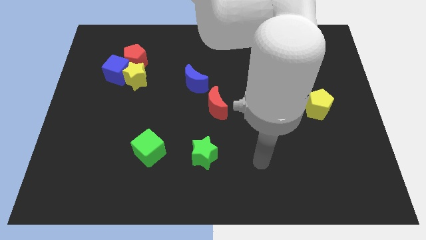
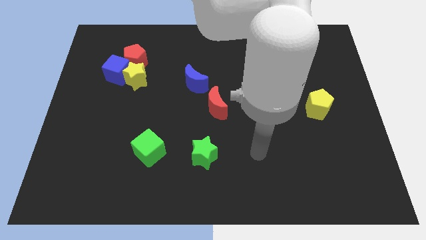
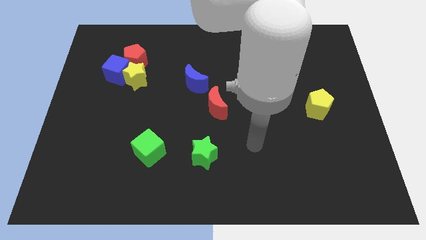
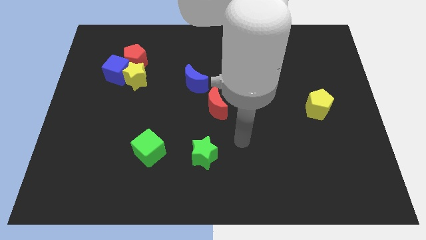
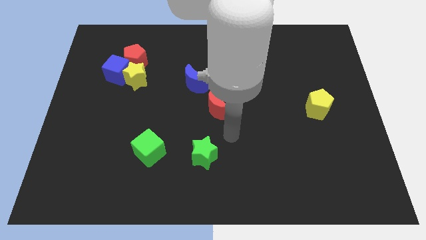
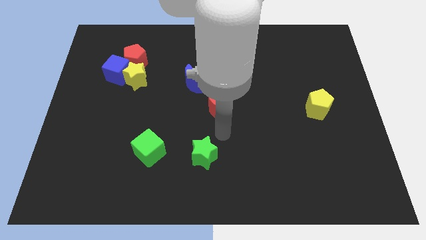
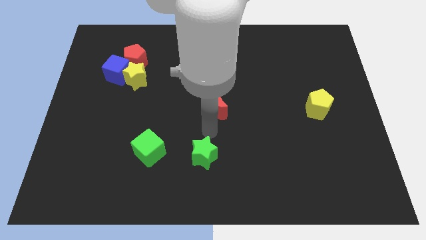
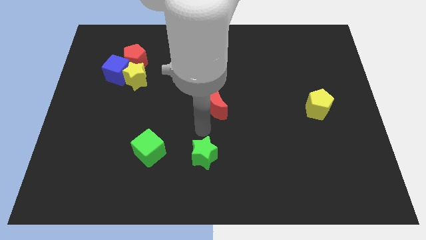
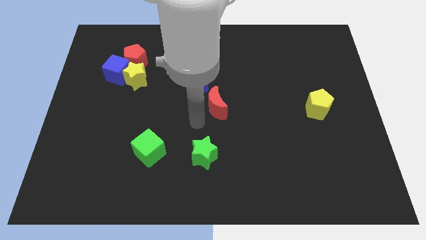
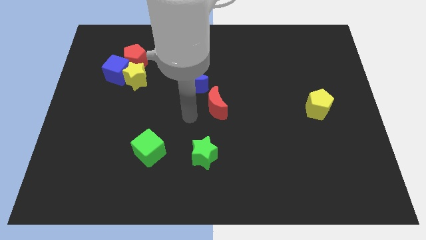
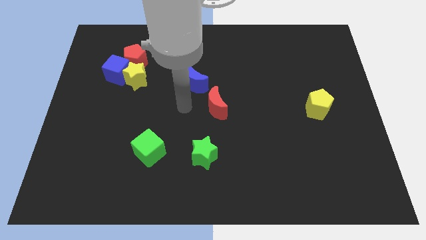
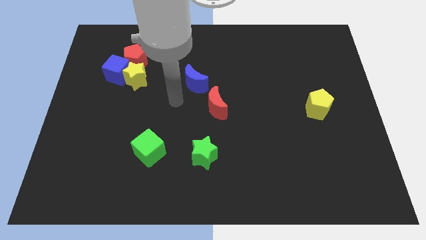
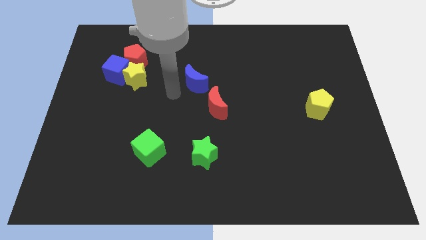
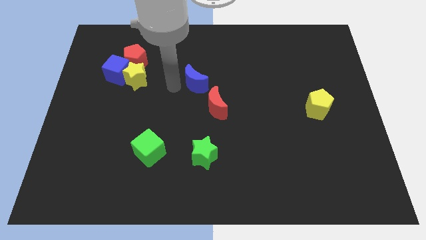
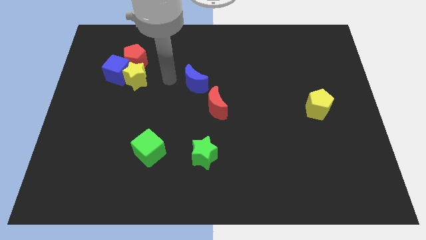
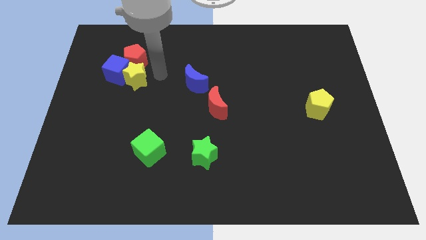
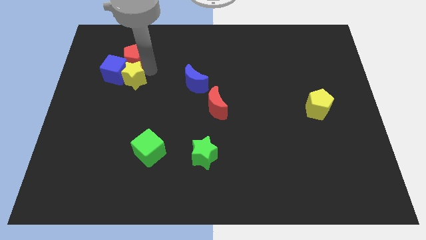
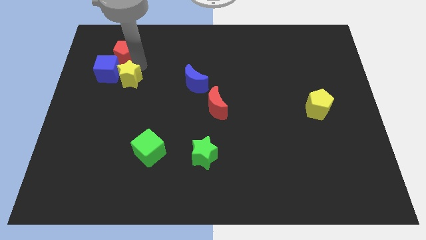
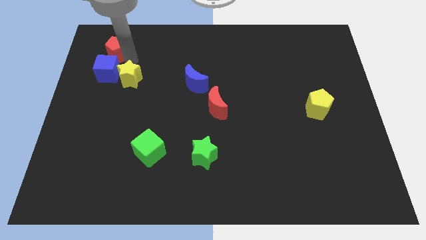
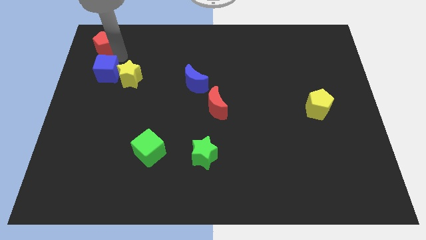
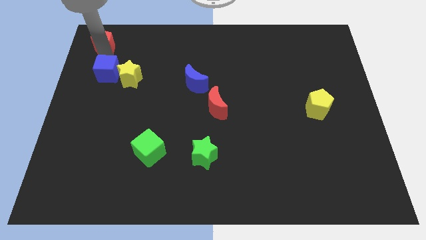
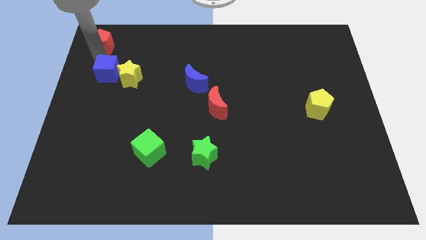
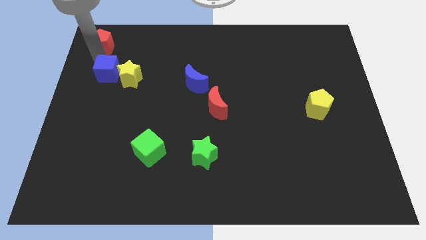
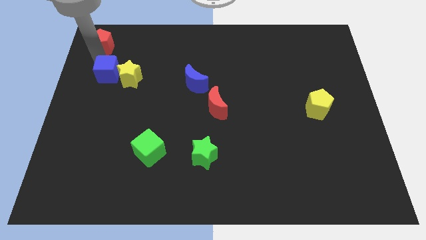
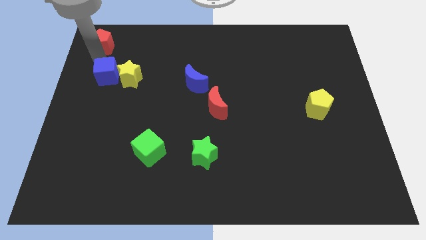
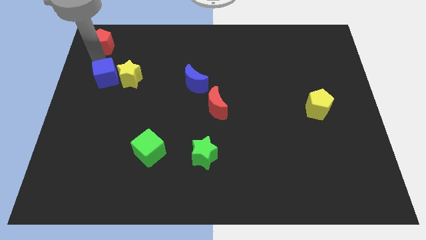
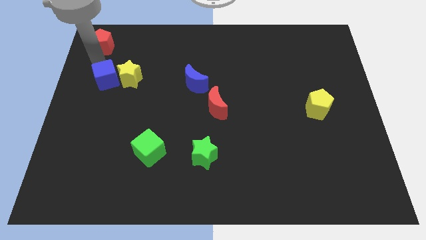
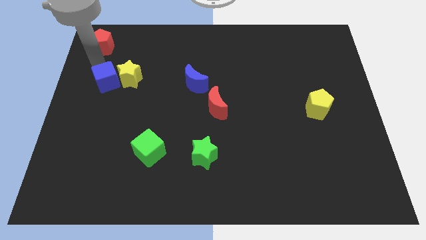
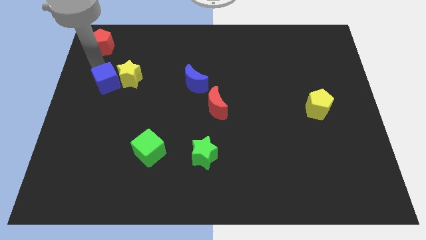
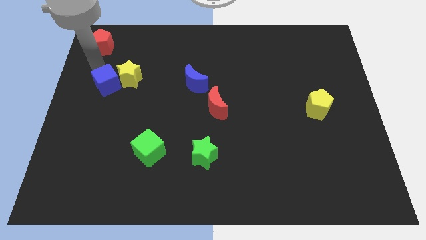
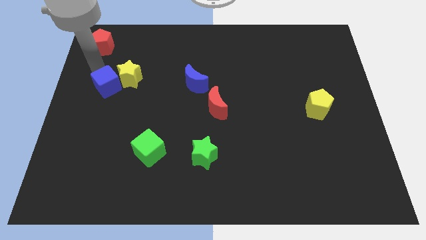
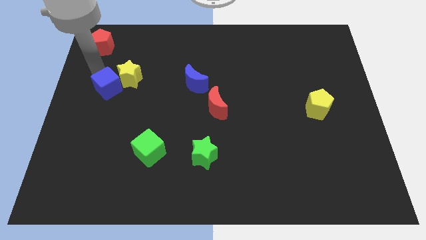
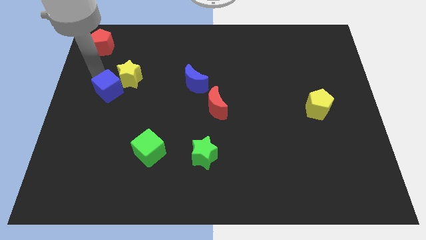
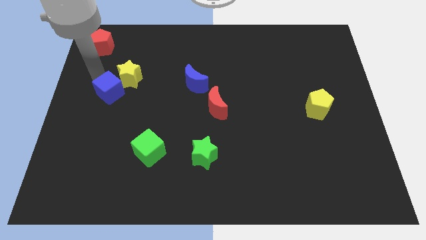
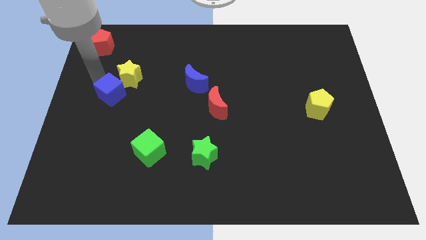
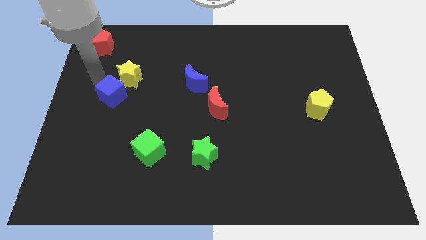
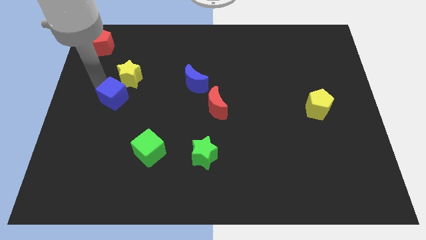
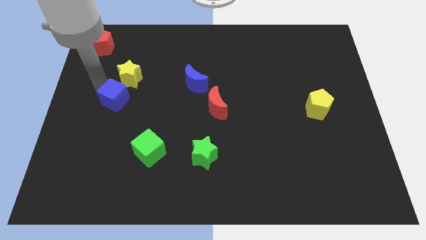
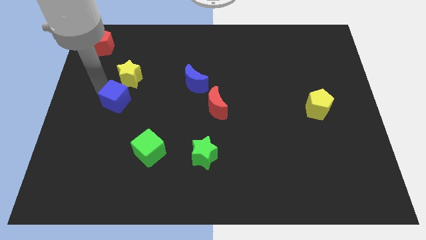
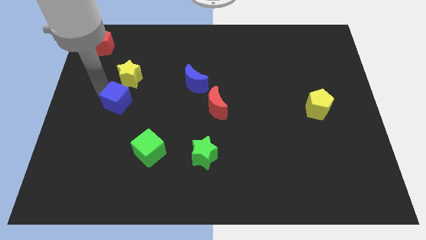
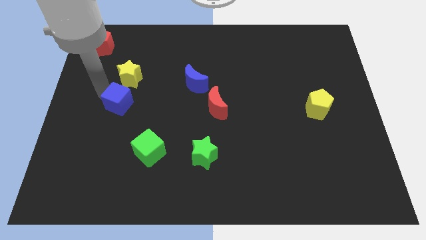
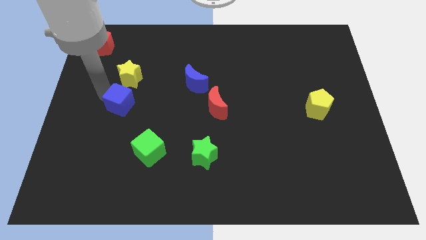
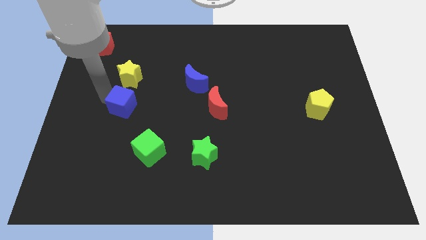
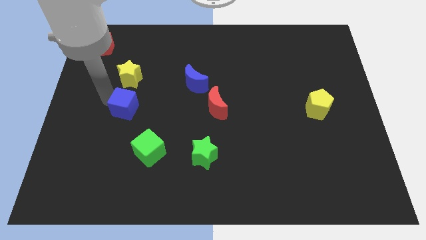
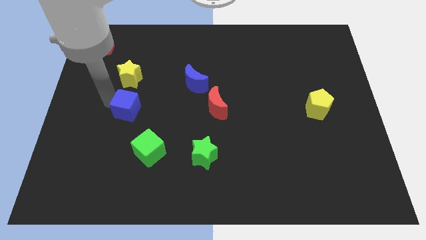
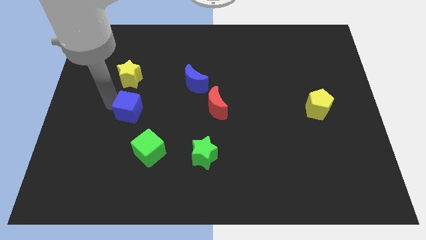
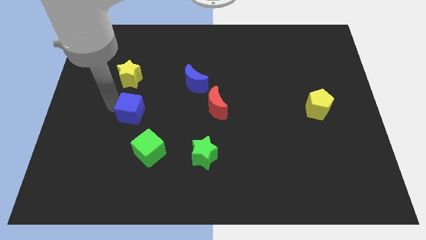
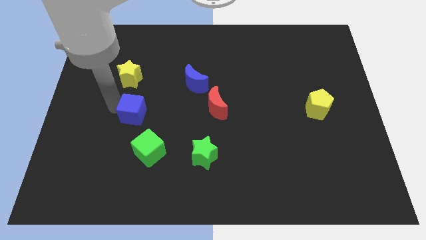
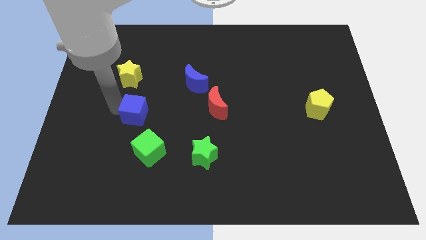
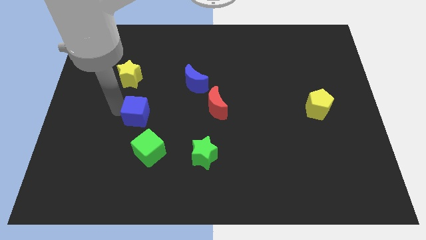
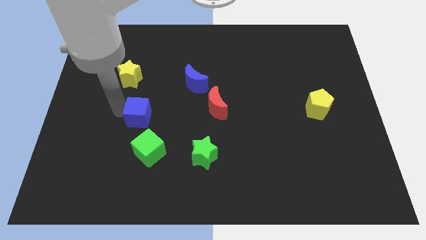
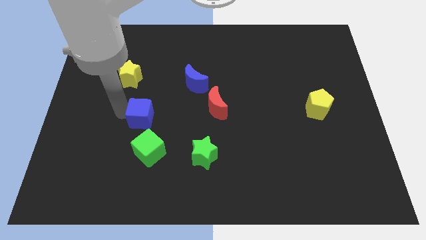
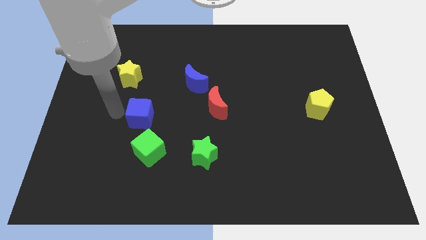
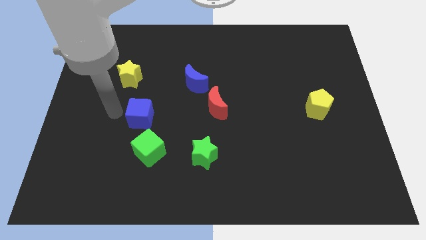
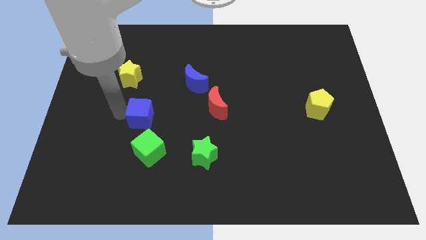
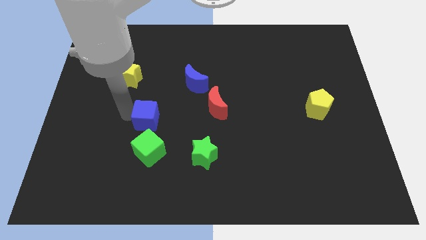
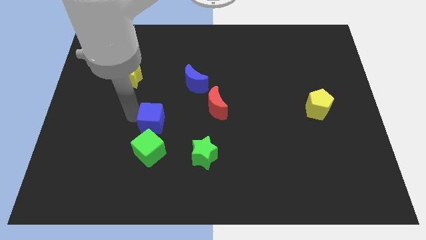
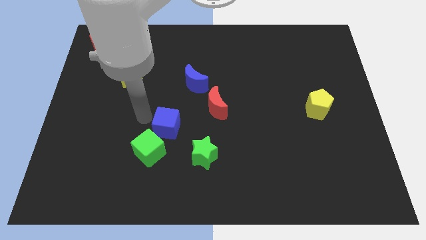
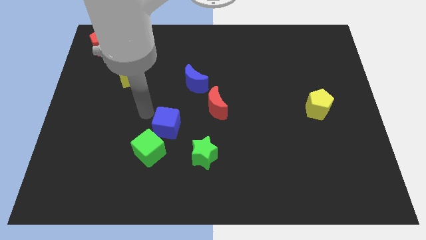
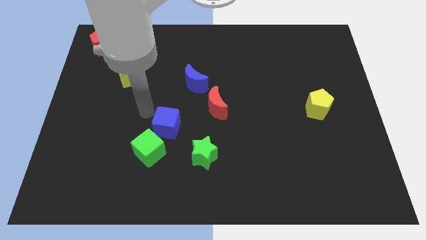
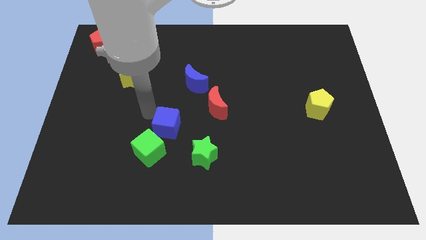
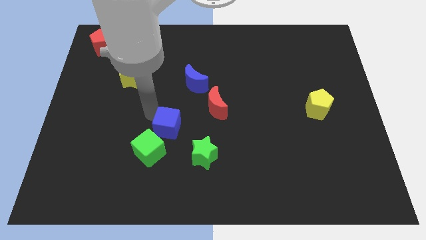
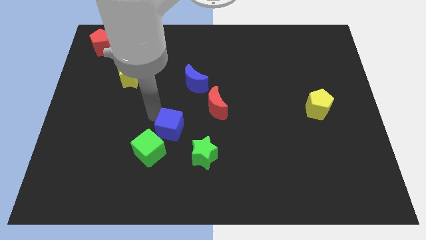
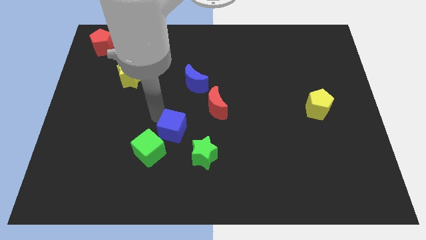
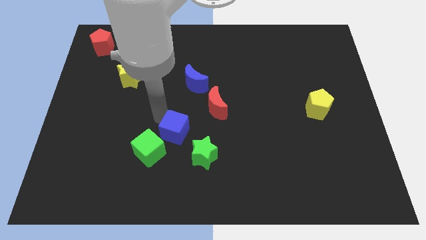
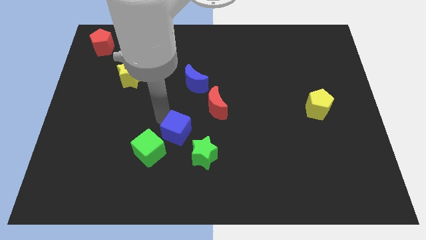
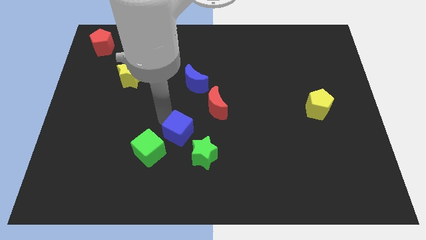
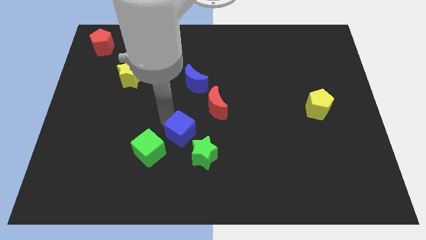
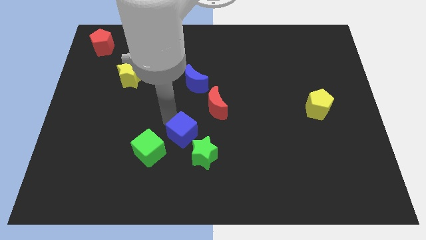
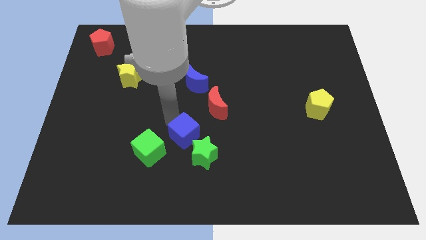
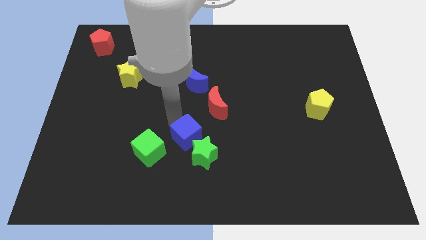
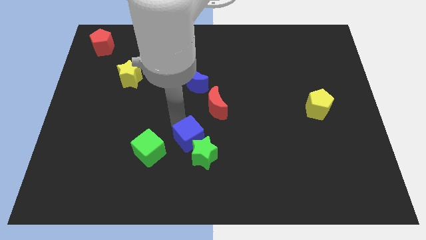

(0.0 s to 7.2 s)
push the blue cube to the green star
